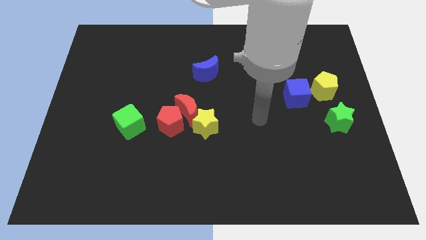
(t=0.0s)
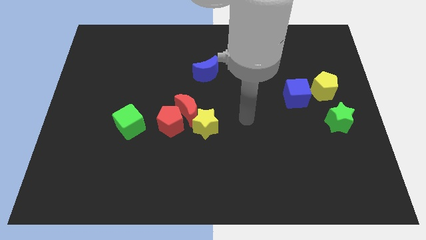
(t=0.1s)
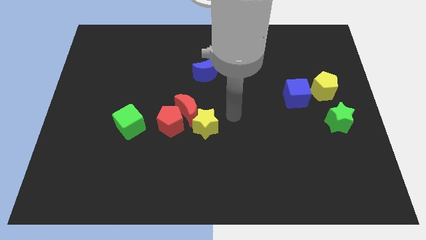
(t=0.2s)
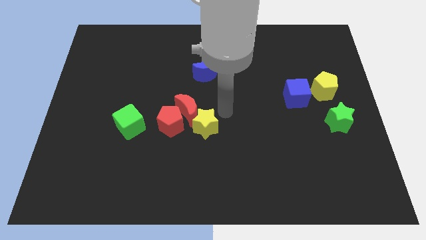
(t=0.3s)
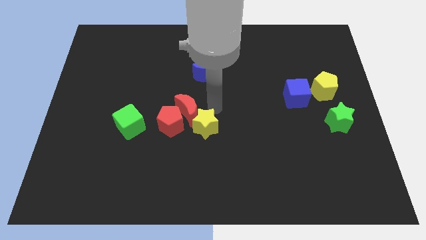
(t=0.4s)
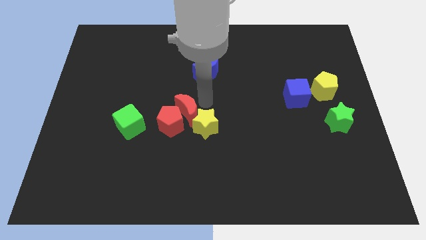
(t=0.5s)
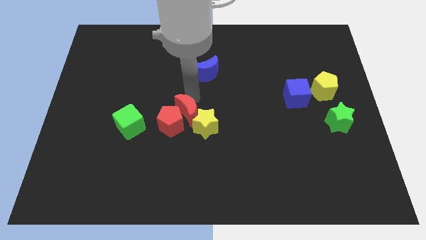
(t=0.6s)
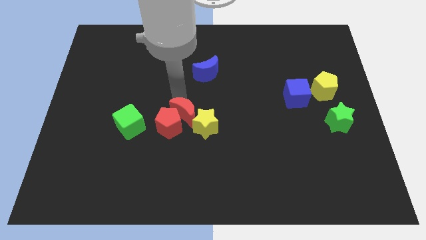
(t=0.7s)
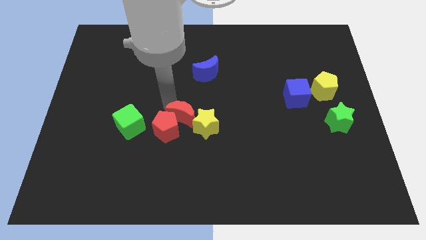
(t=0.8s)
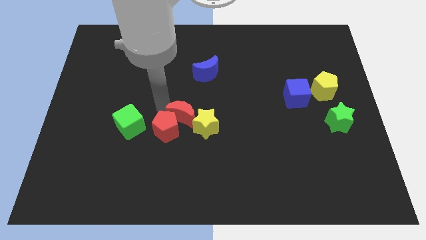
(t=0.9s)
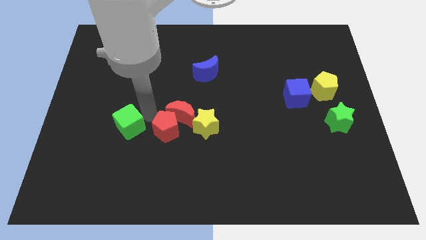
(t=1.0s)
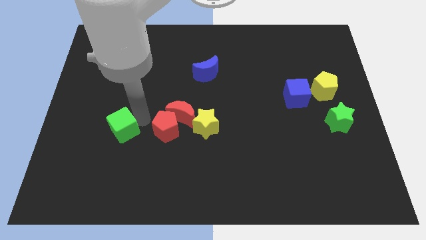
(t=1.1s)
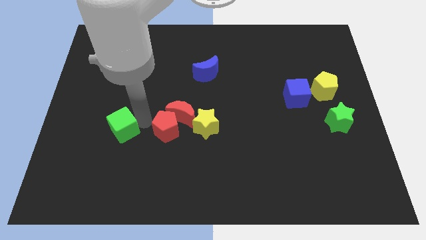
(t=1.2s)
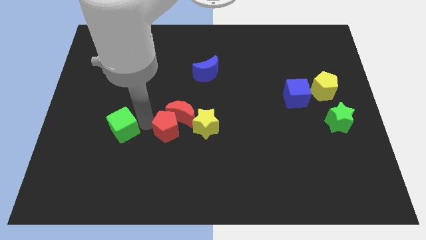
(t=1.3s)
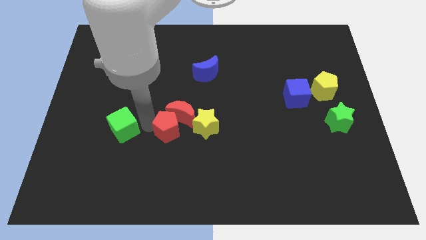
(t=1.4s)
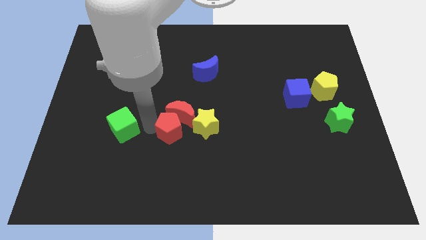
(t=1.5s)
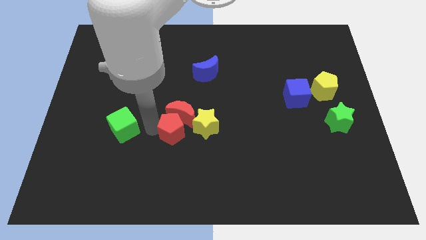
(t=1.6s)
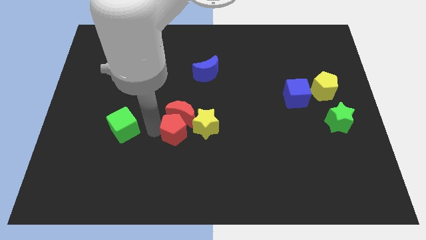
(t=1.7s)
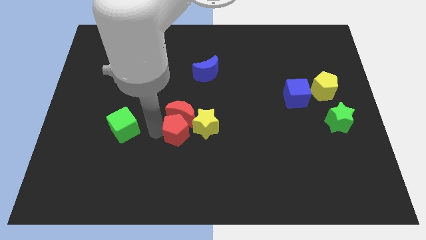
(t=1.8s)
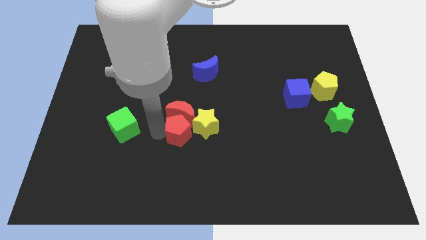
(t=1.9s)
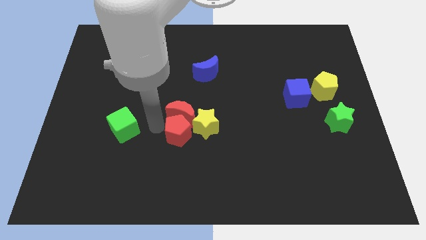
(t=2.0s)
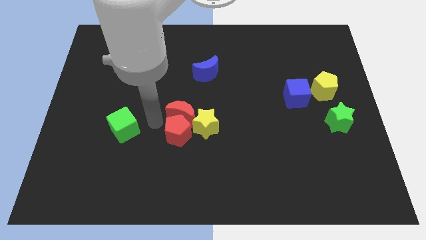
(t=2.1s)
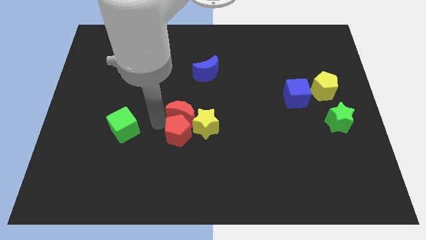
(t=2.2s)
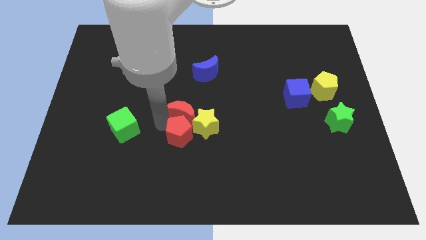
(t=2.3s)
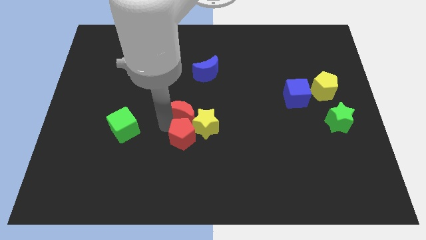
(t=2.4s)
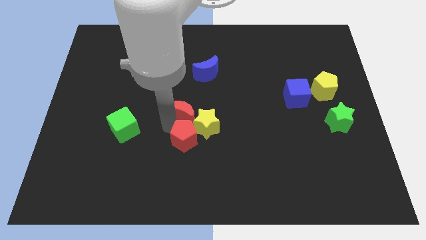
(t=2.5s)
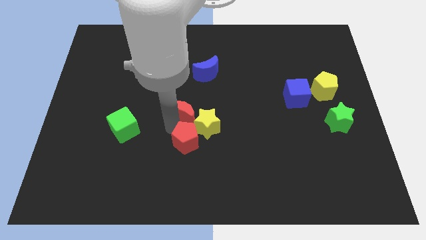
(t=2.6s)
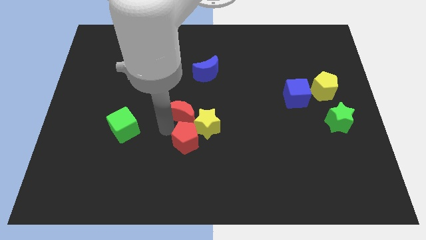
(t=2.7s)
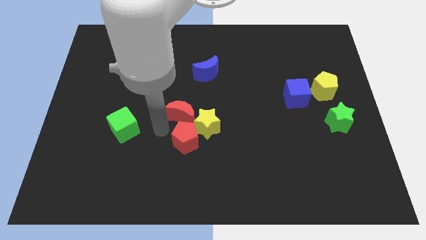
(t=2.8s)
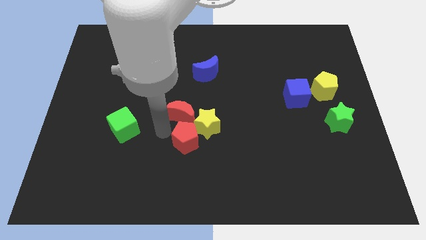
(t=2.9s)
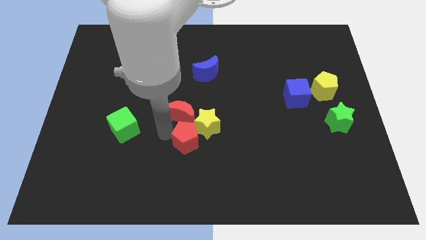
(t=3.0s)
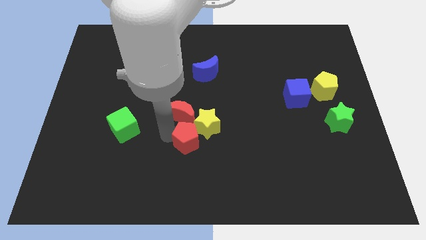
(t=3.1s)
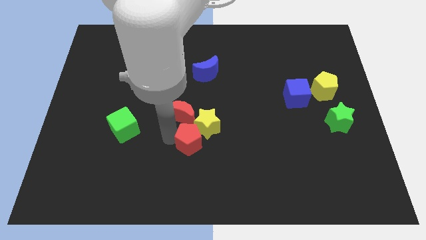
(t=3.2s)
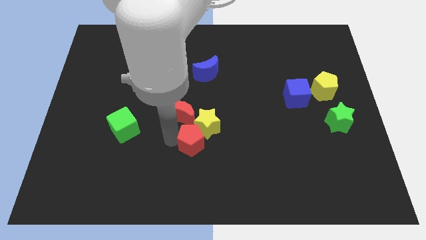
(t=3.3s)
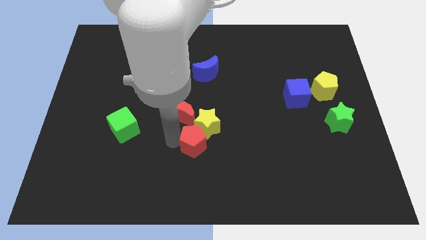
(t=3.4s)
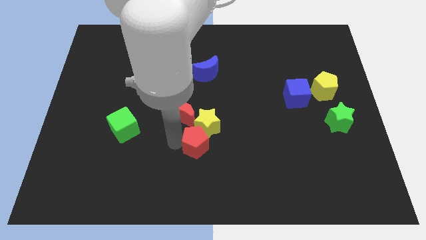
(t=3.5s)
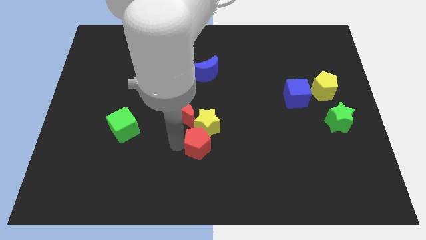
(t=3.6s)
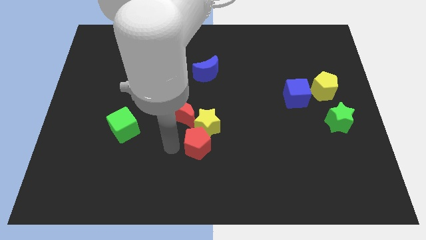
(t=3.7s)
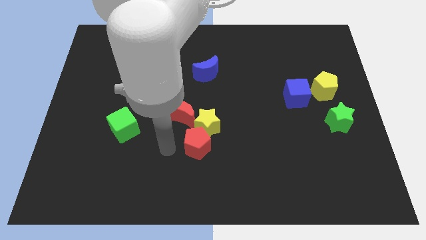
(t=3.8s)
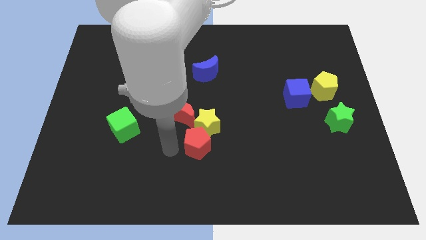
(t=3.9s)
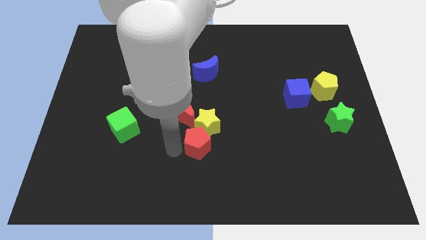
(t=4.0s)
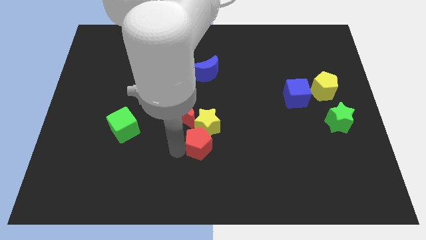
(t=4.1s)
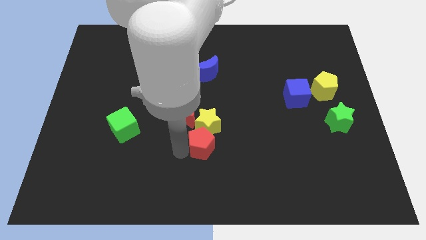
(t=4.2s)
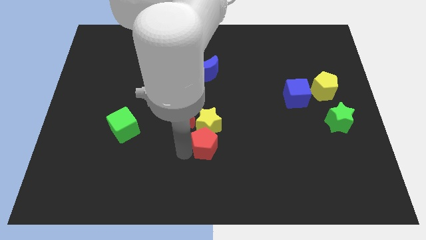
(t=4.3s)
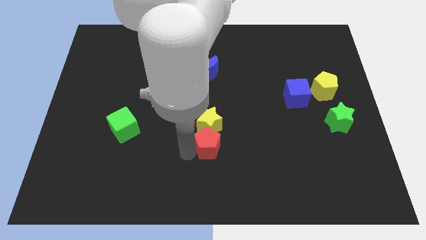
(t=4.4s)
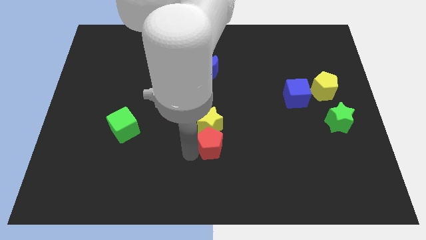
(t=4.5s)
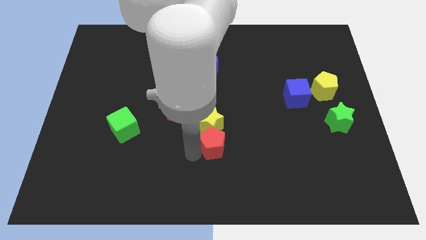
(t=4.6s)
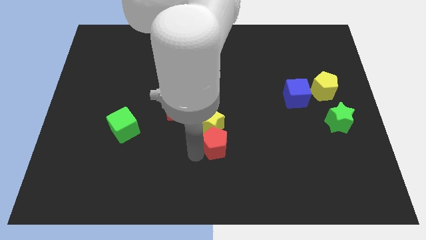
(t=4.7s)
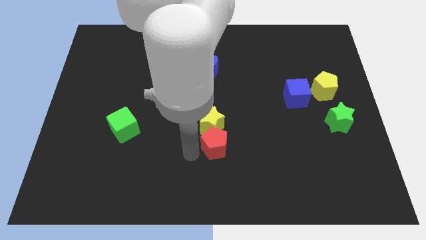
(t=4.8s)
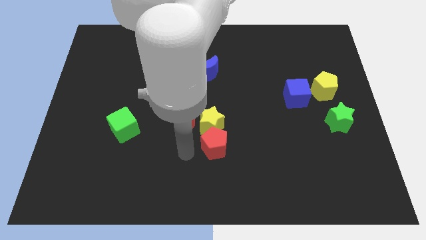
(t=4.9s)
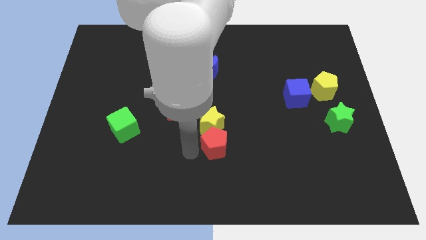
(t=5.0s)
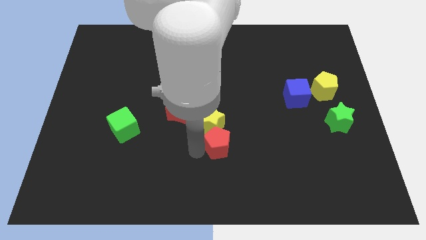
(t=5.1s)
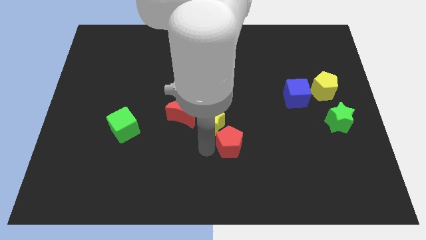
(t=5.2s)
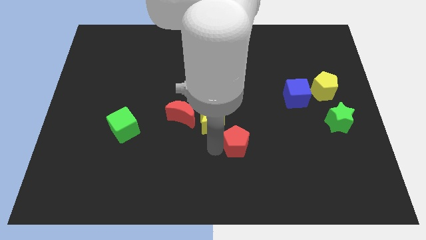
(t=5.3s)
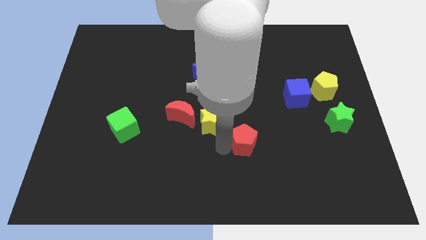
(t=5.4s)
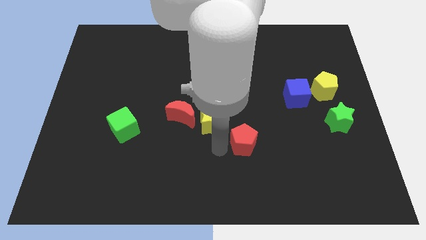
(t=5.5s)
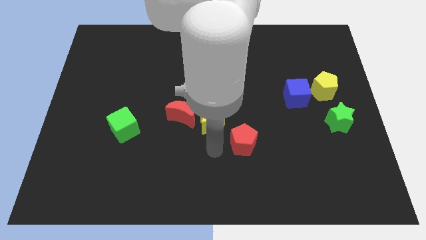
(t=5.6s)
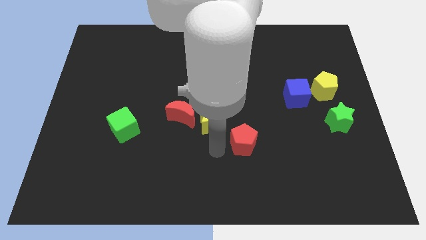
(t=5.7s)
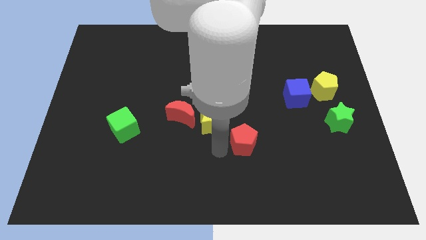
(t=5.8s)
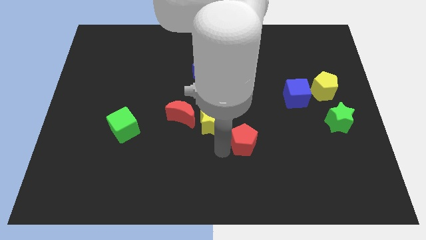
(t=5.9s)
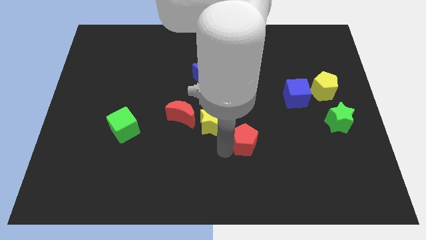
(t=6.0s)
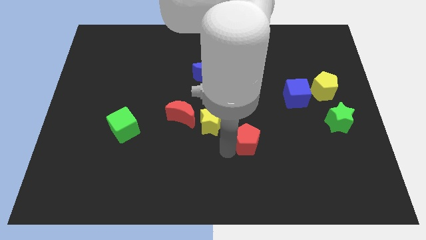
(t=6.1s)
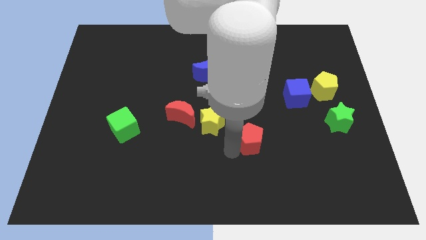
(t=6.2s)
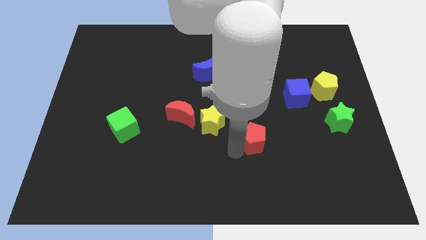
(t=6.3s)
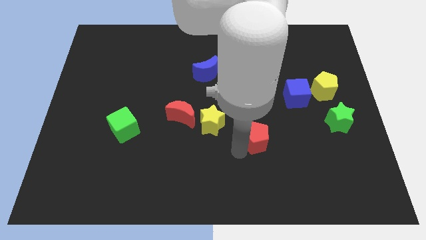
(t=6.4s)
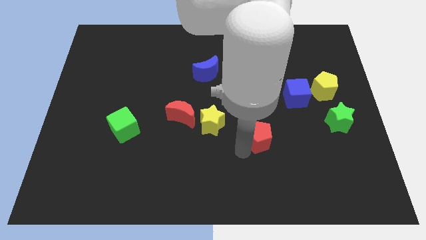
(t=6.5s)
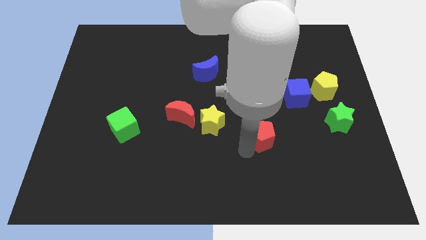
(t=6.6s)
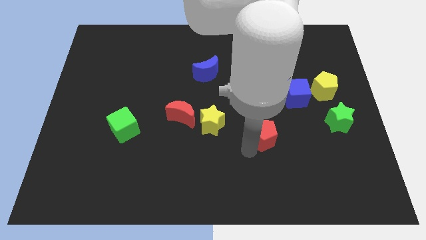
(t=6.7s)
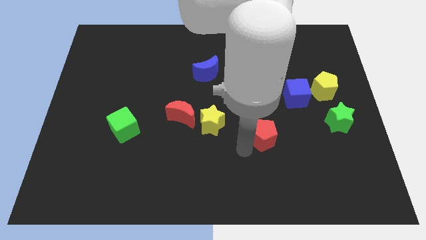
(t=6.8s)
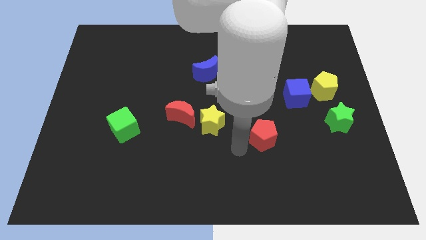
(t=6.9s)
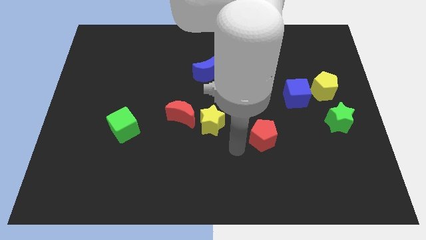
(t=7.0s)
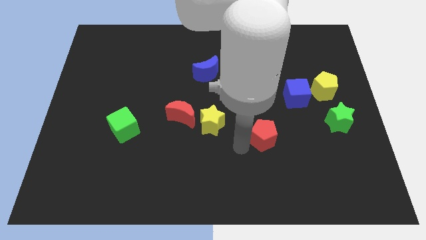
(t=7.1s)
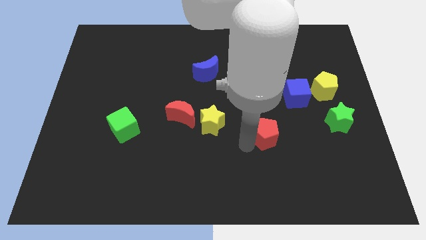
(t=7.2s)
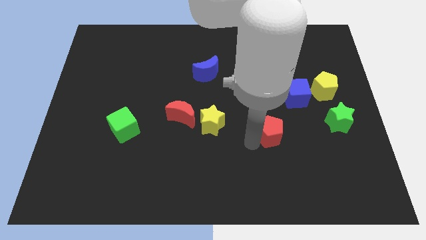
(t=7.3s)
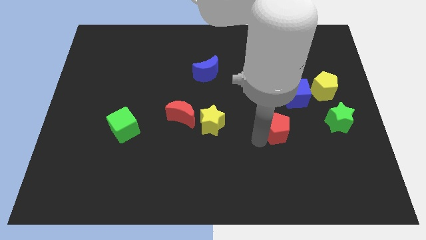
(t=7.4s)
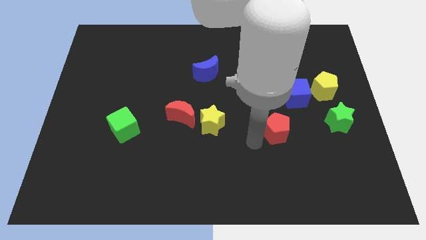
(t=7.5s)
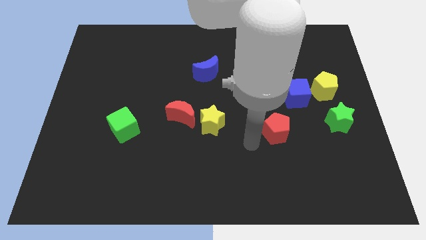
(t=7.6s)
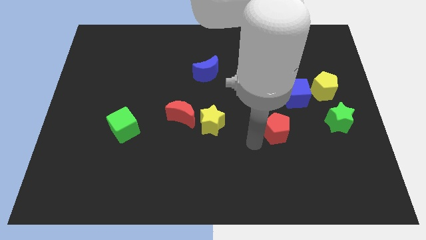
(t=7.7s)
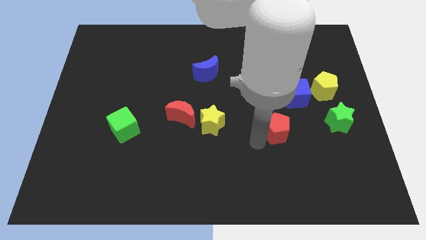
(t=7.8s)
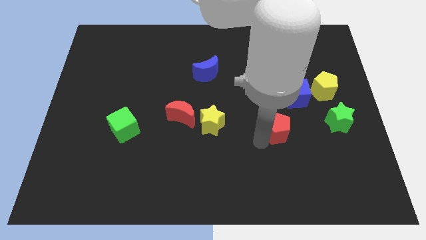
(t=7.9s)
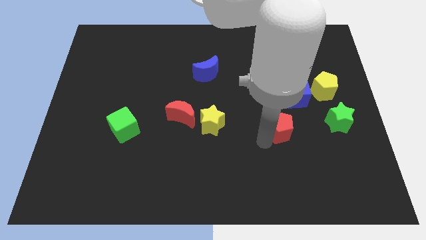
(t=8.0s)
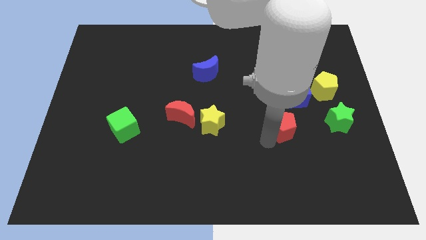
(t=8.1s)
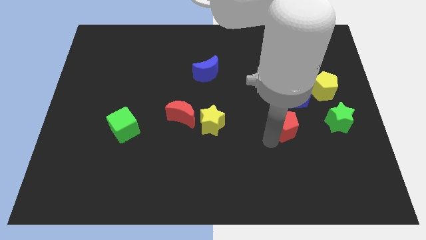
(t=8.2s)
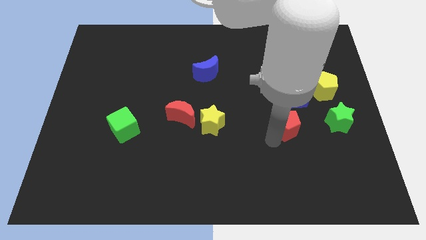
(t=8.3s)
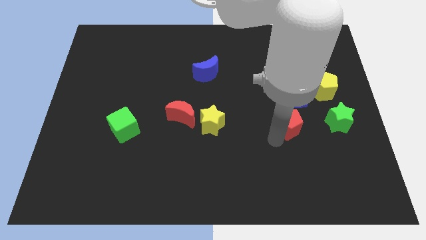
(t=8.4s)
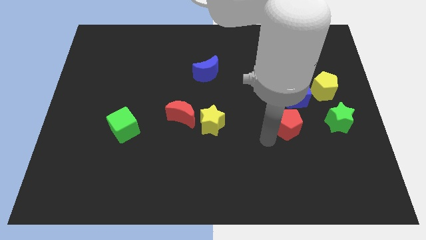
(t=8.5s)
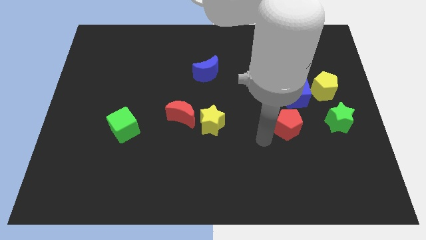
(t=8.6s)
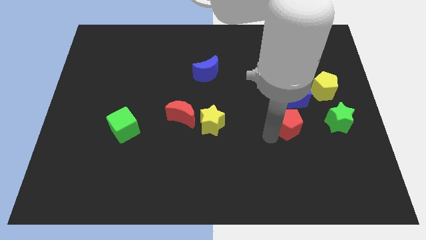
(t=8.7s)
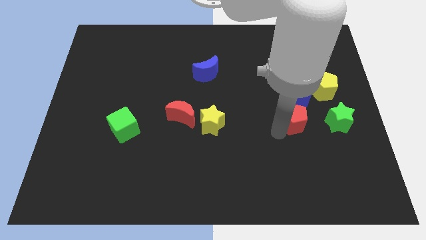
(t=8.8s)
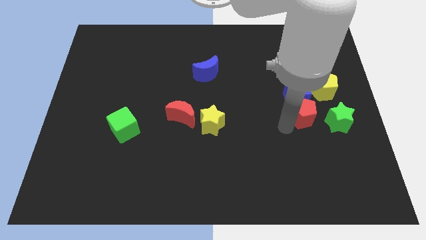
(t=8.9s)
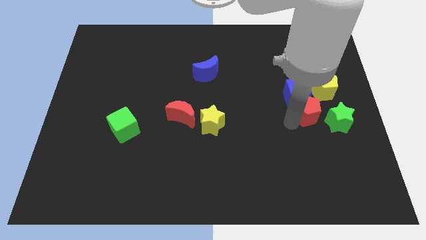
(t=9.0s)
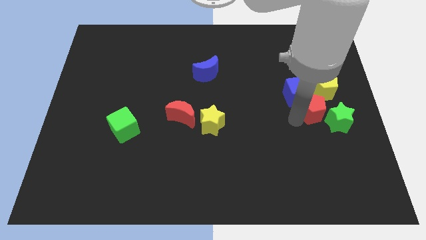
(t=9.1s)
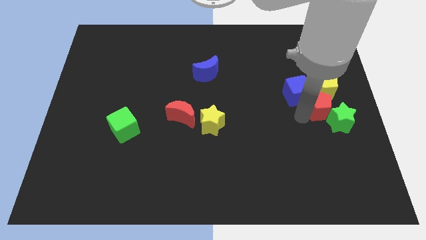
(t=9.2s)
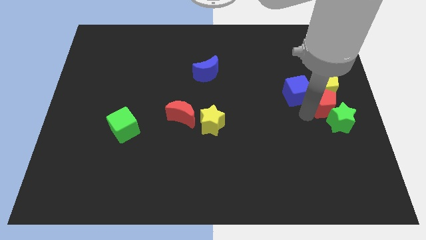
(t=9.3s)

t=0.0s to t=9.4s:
slide the red pentagon to the right side
